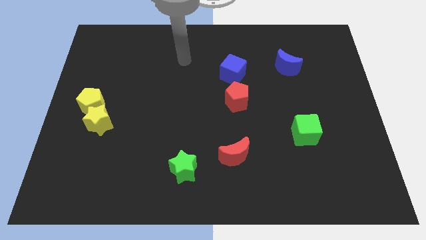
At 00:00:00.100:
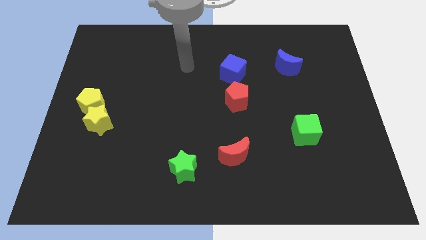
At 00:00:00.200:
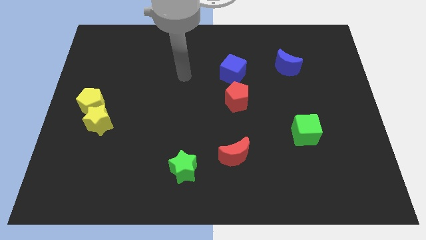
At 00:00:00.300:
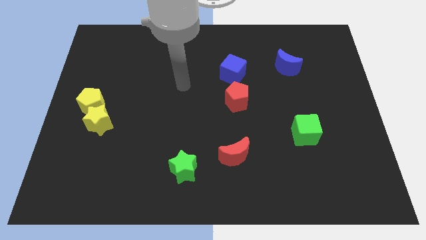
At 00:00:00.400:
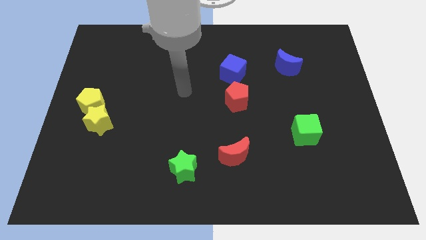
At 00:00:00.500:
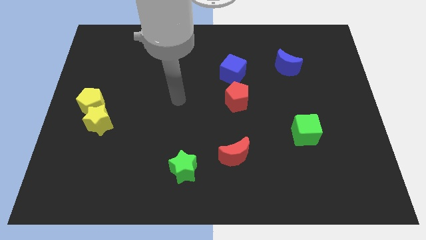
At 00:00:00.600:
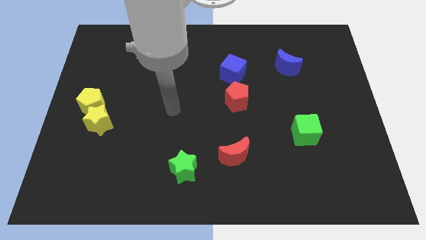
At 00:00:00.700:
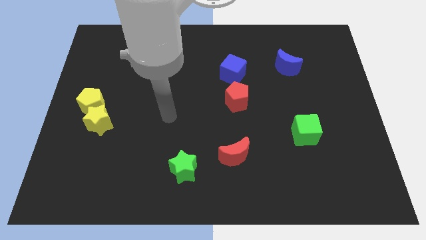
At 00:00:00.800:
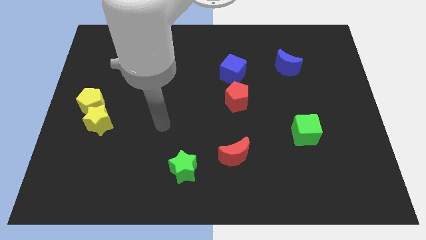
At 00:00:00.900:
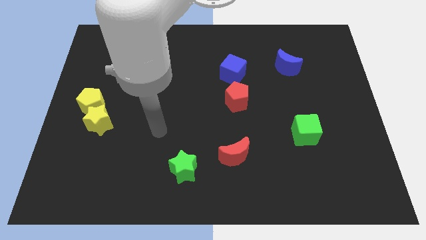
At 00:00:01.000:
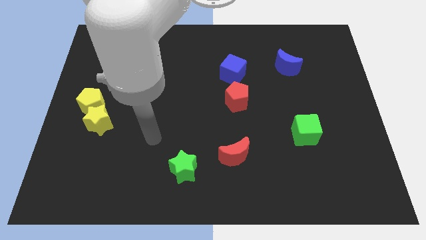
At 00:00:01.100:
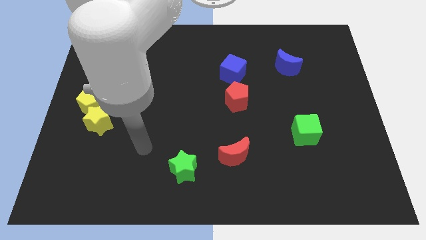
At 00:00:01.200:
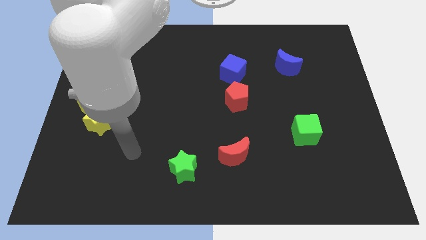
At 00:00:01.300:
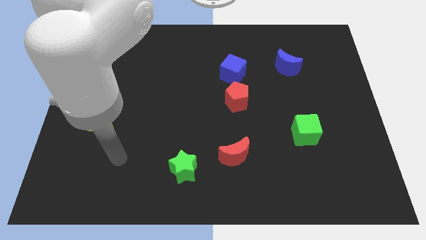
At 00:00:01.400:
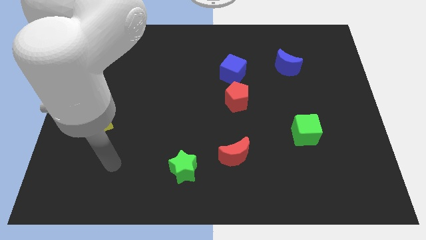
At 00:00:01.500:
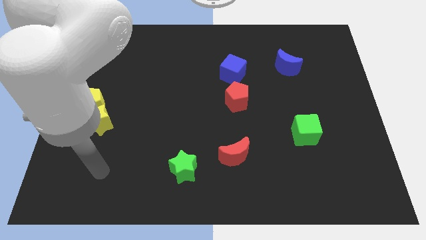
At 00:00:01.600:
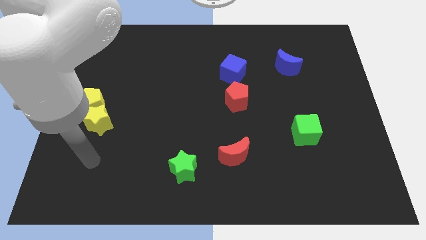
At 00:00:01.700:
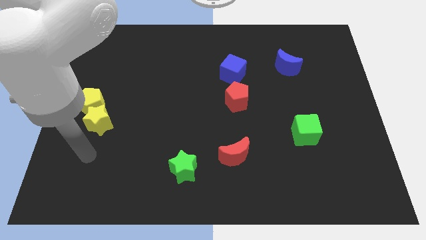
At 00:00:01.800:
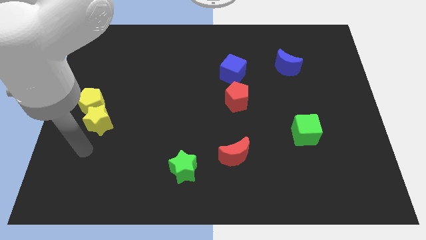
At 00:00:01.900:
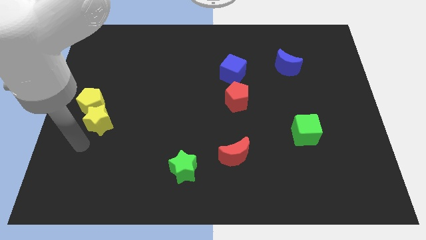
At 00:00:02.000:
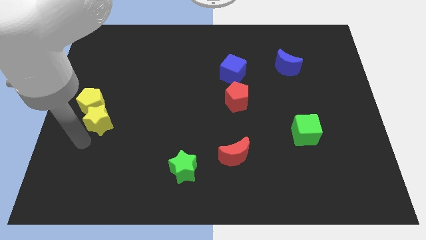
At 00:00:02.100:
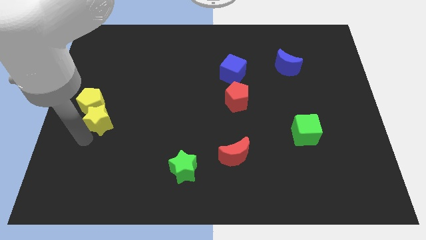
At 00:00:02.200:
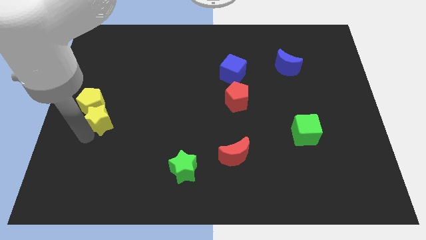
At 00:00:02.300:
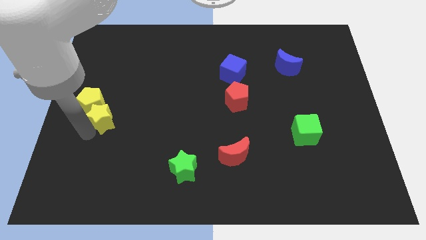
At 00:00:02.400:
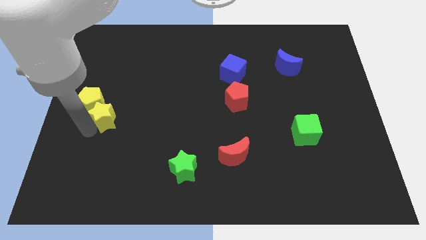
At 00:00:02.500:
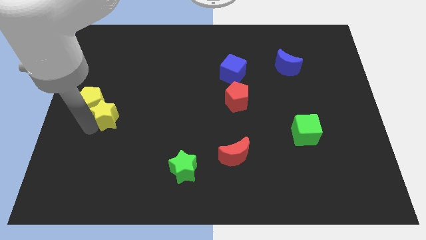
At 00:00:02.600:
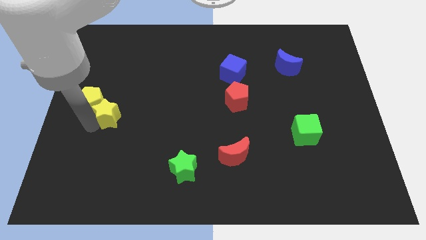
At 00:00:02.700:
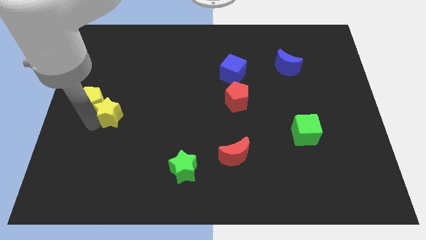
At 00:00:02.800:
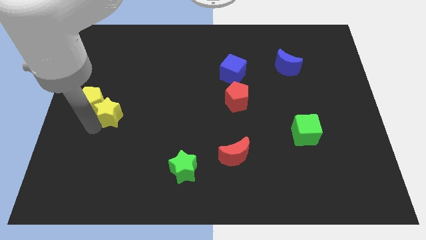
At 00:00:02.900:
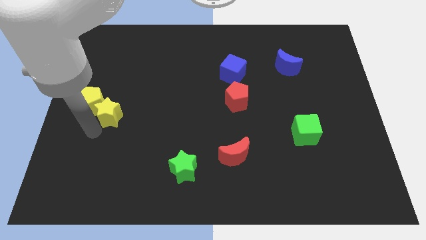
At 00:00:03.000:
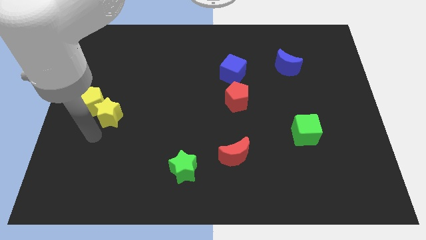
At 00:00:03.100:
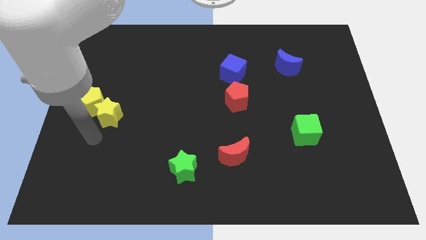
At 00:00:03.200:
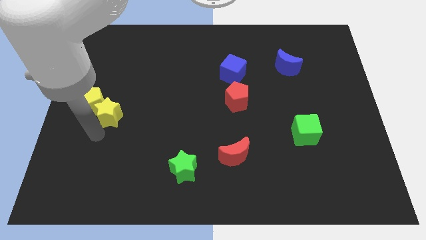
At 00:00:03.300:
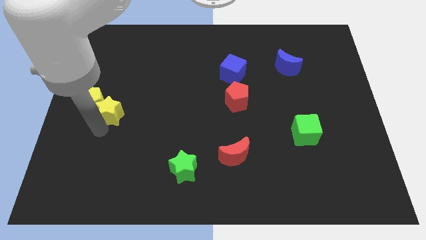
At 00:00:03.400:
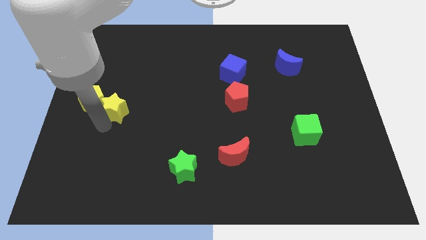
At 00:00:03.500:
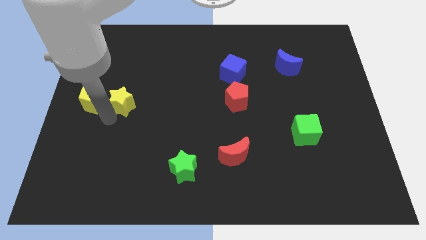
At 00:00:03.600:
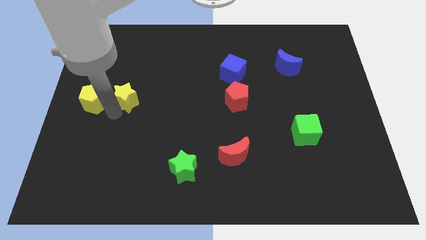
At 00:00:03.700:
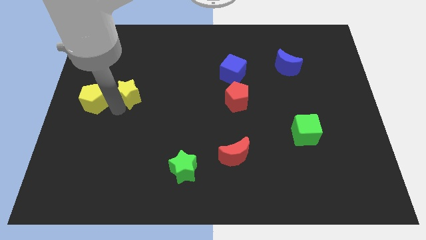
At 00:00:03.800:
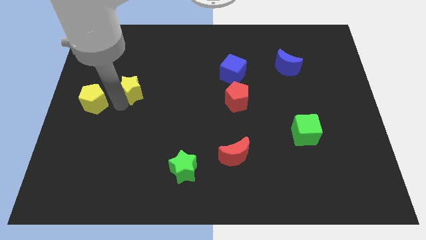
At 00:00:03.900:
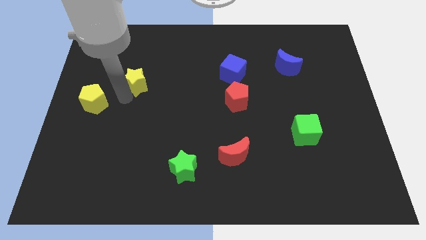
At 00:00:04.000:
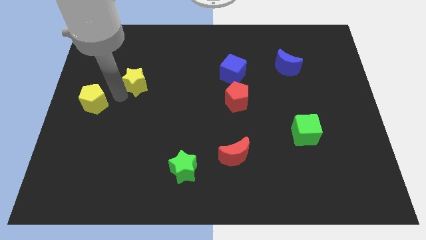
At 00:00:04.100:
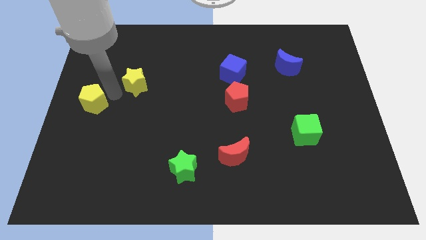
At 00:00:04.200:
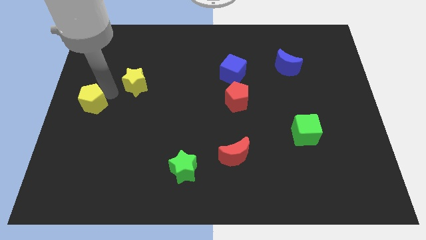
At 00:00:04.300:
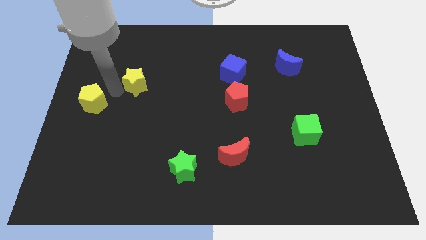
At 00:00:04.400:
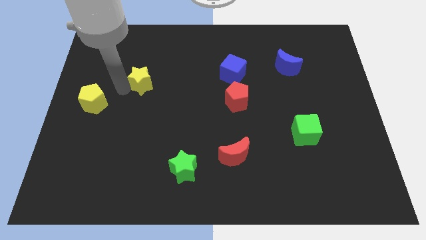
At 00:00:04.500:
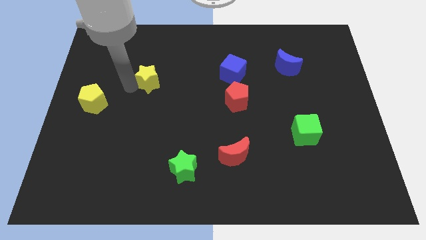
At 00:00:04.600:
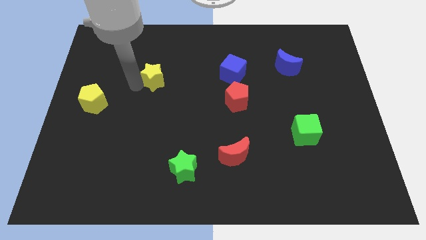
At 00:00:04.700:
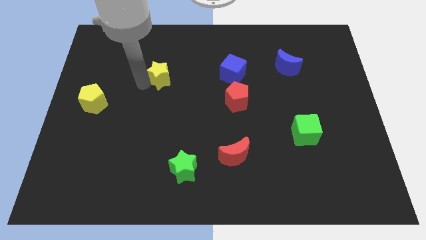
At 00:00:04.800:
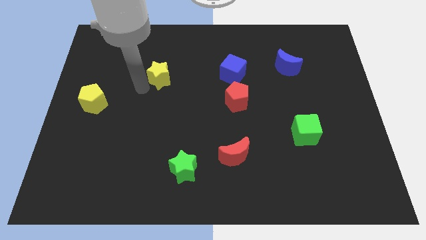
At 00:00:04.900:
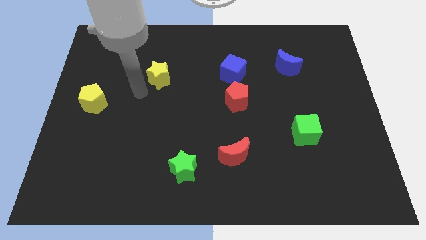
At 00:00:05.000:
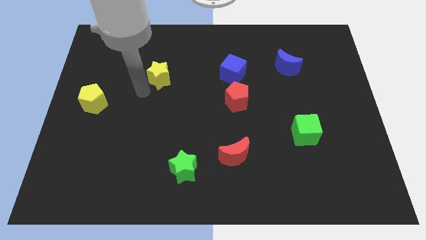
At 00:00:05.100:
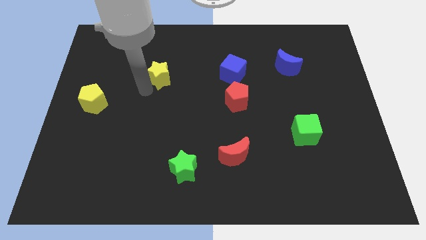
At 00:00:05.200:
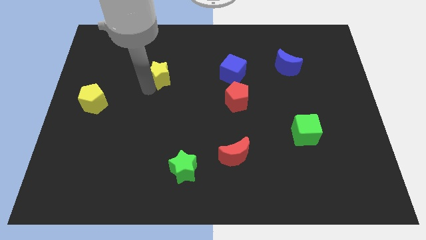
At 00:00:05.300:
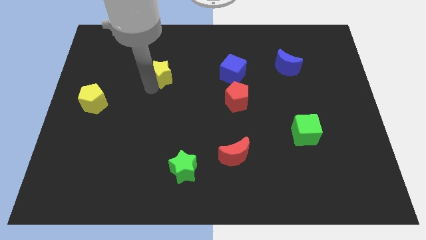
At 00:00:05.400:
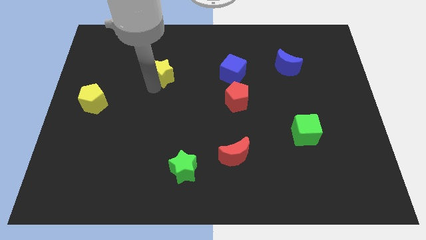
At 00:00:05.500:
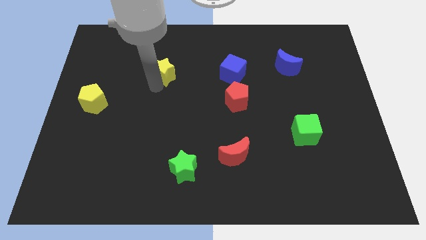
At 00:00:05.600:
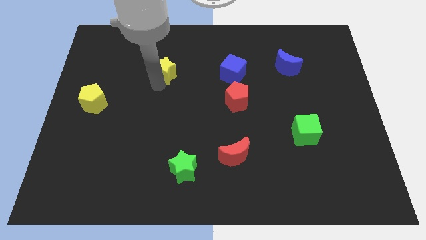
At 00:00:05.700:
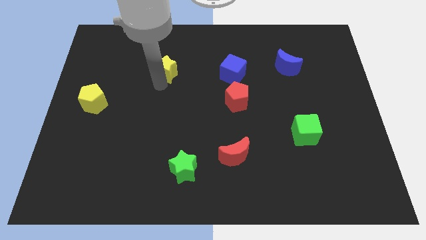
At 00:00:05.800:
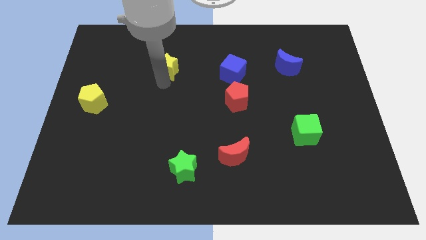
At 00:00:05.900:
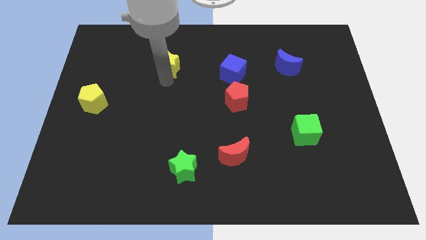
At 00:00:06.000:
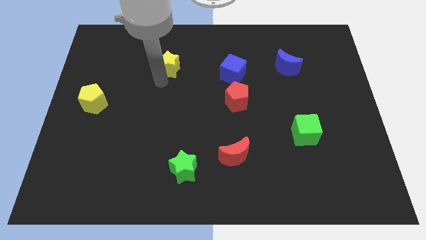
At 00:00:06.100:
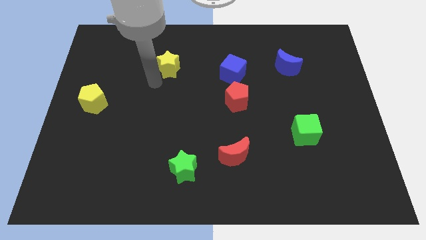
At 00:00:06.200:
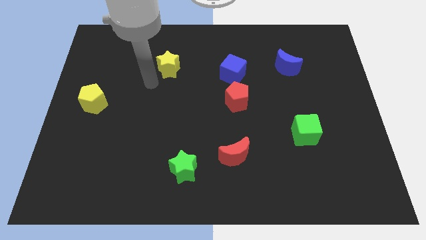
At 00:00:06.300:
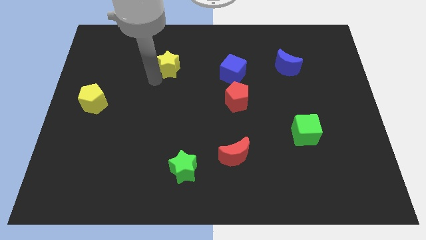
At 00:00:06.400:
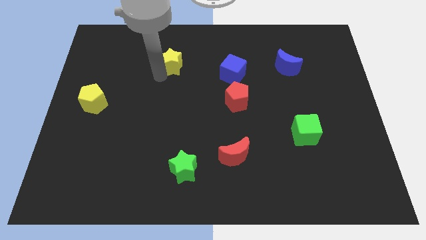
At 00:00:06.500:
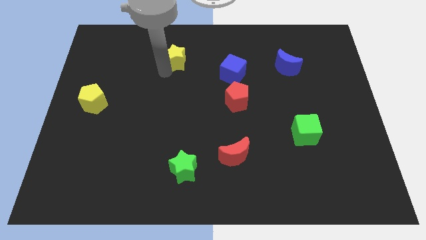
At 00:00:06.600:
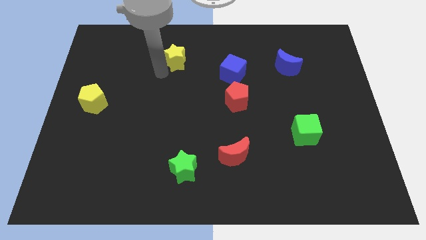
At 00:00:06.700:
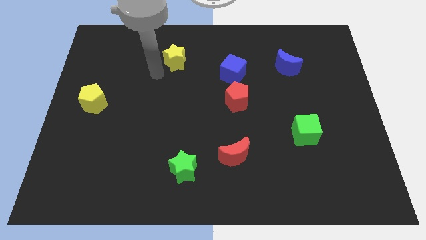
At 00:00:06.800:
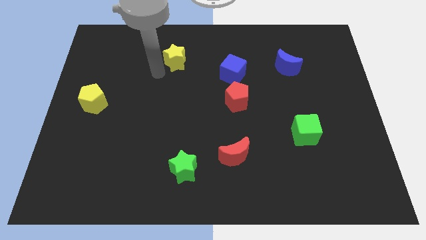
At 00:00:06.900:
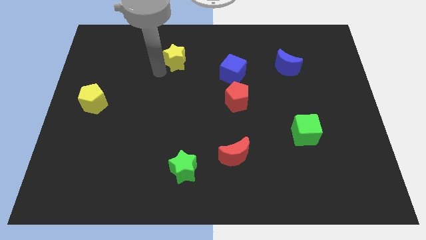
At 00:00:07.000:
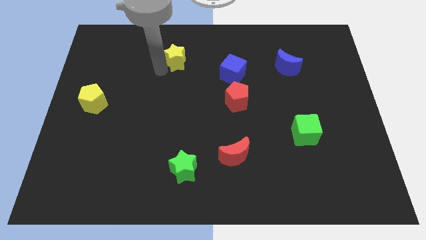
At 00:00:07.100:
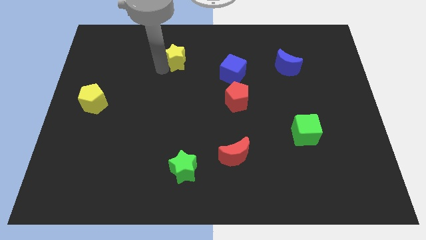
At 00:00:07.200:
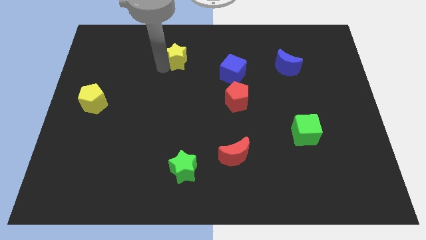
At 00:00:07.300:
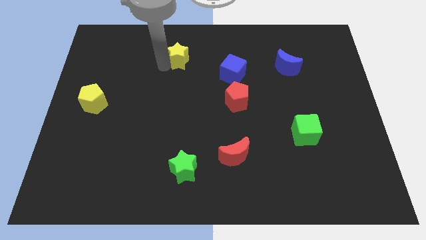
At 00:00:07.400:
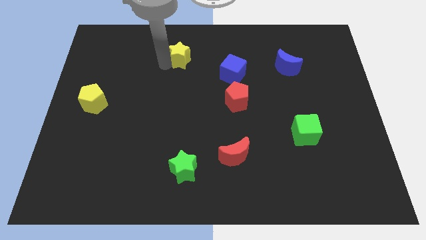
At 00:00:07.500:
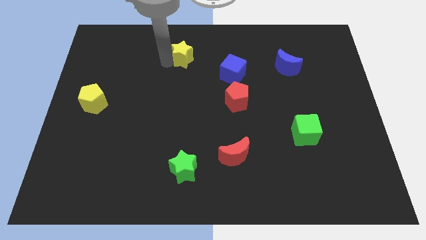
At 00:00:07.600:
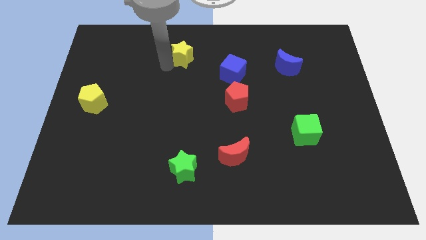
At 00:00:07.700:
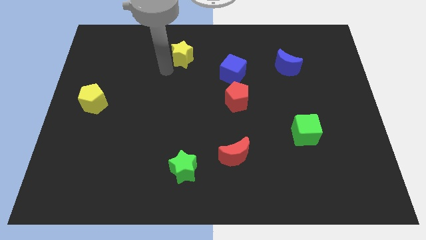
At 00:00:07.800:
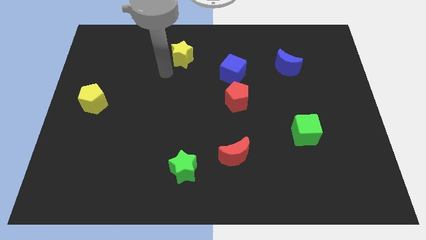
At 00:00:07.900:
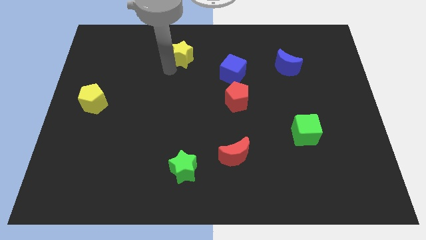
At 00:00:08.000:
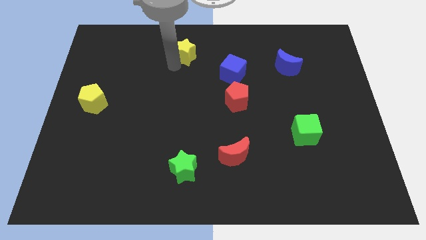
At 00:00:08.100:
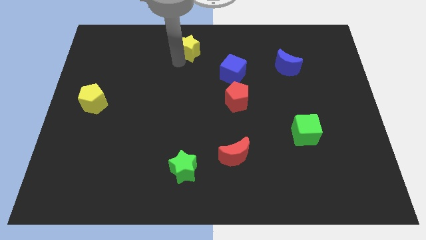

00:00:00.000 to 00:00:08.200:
move the yellow star to the top
